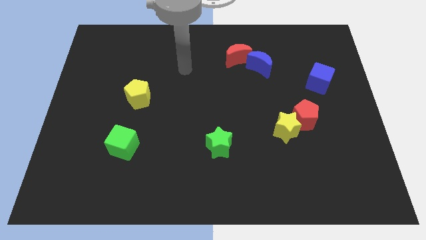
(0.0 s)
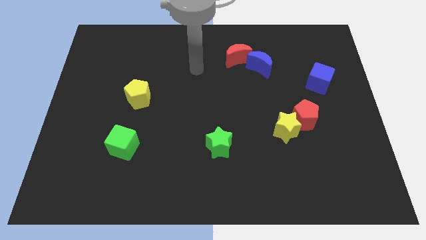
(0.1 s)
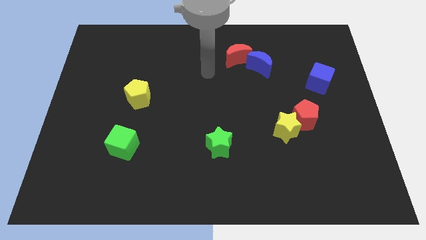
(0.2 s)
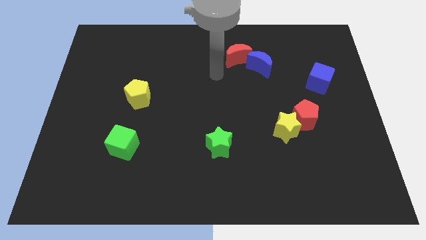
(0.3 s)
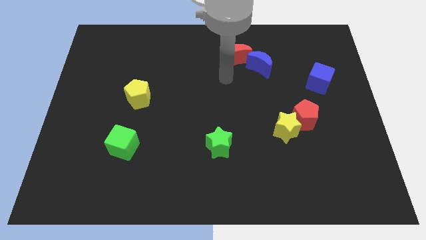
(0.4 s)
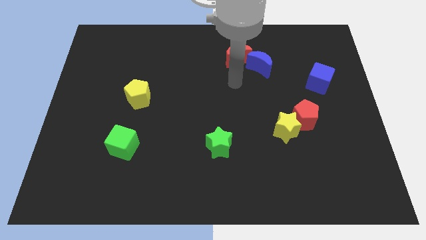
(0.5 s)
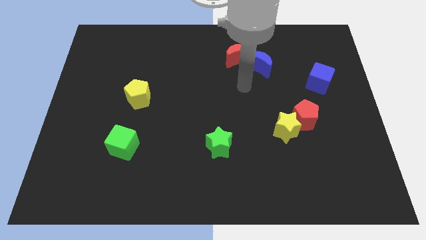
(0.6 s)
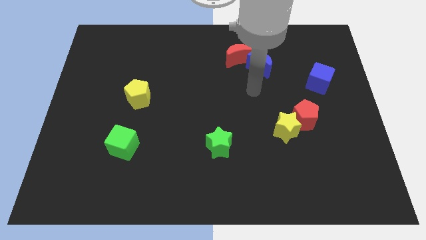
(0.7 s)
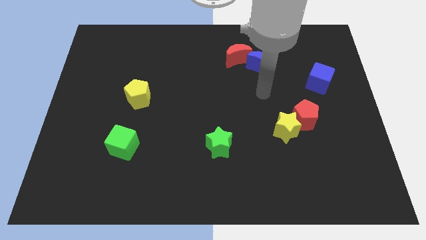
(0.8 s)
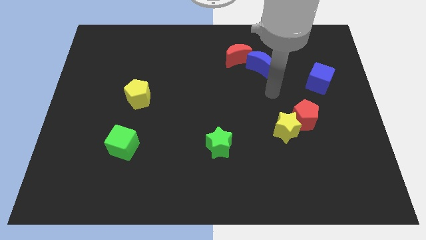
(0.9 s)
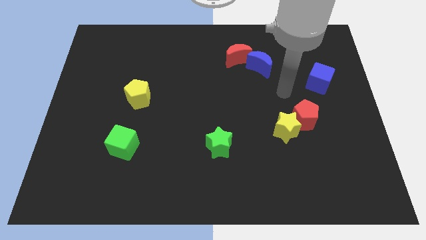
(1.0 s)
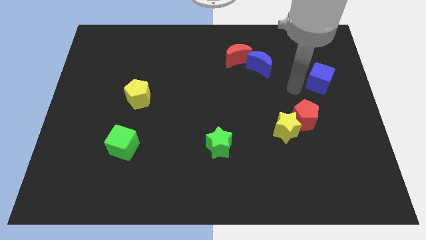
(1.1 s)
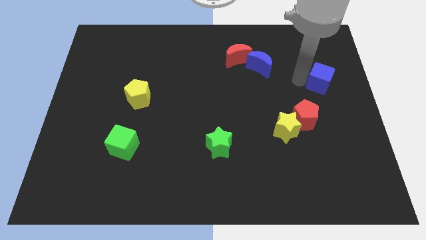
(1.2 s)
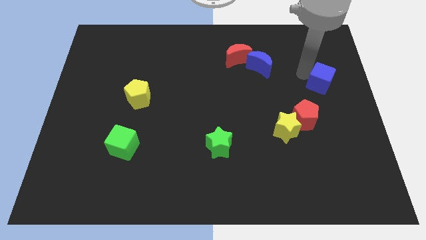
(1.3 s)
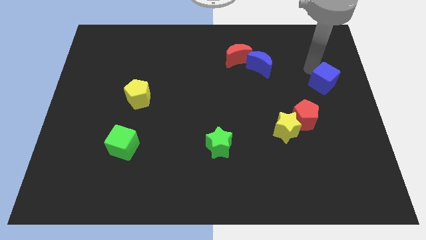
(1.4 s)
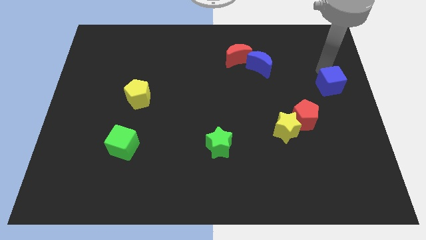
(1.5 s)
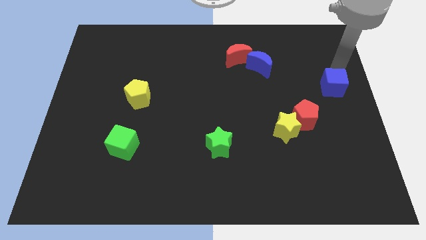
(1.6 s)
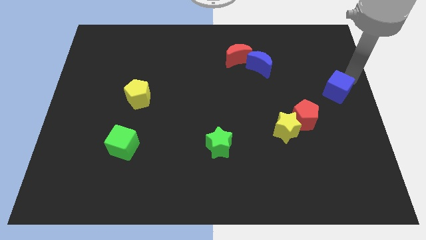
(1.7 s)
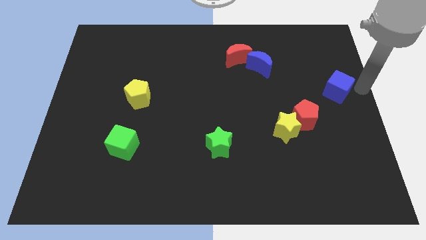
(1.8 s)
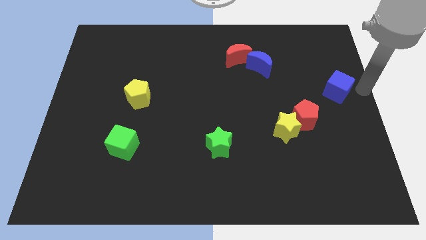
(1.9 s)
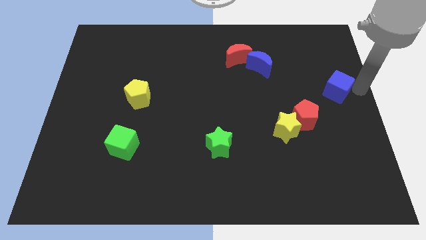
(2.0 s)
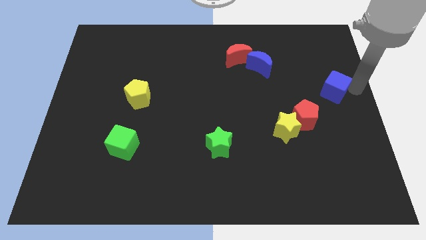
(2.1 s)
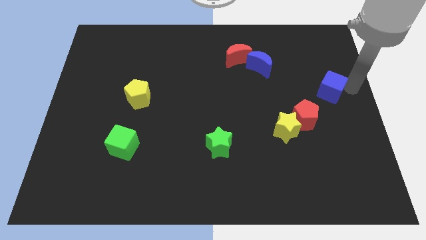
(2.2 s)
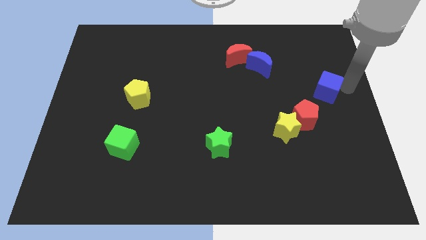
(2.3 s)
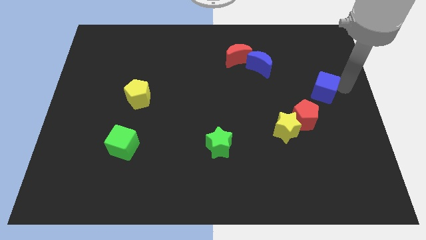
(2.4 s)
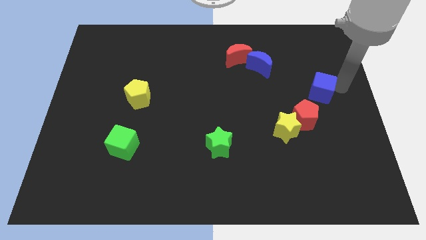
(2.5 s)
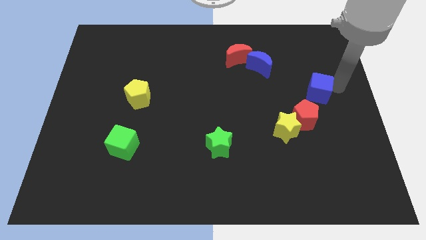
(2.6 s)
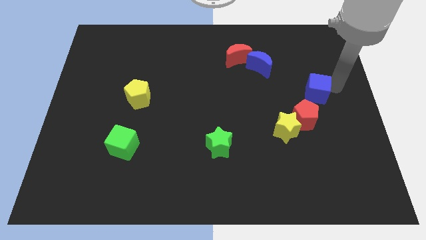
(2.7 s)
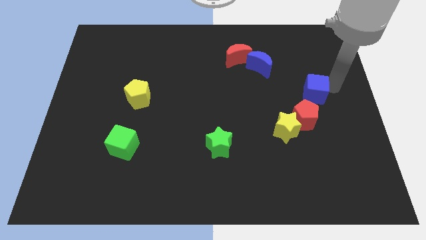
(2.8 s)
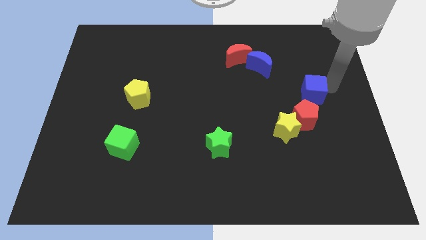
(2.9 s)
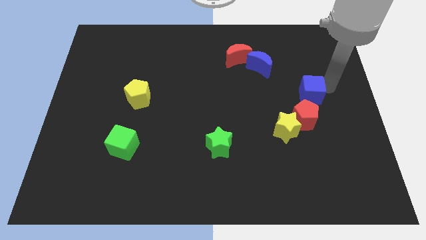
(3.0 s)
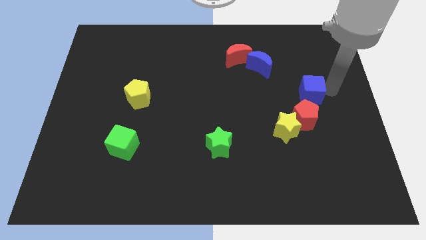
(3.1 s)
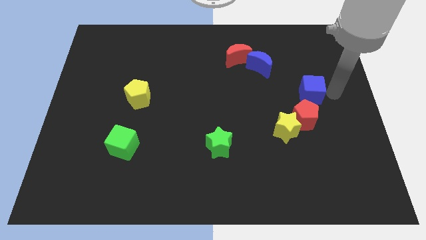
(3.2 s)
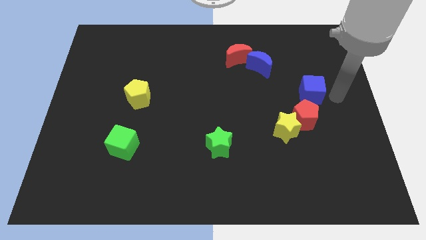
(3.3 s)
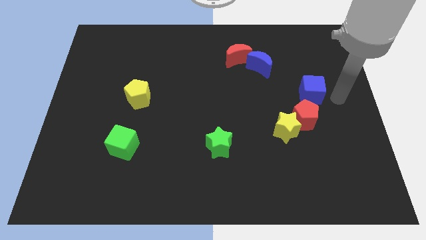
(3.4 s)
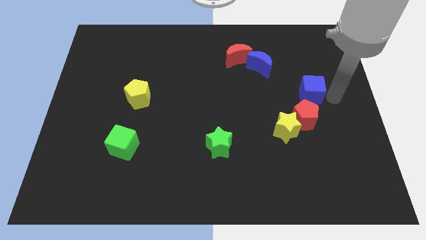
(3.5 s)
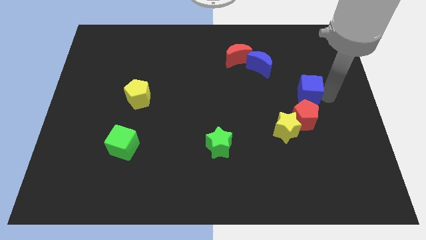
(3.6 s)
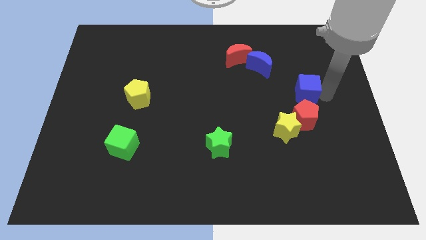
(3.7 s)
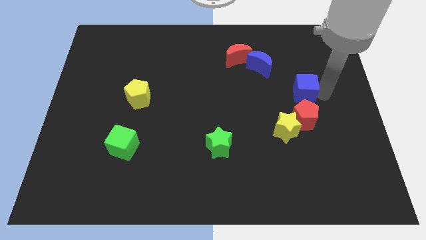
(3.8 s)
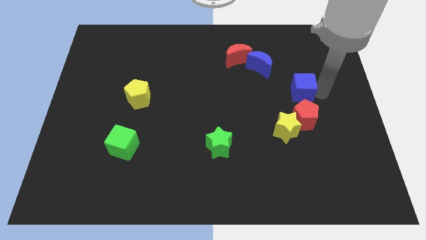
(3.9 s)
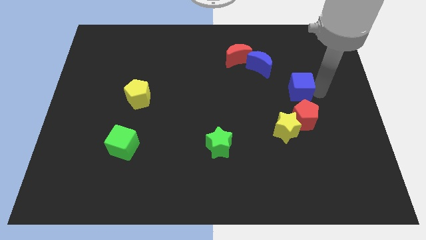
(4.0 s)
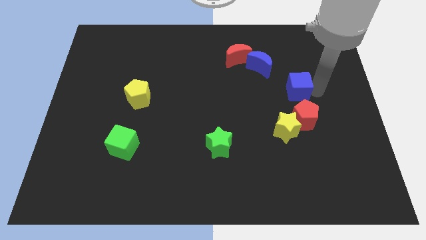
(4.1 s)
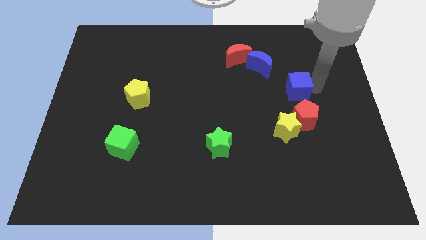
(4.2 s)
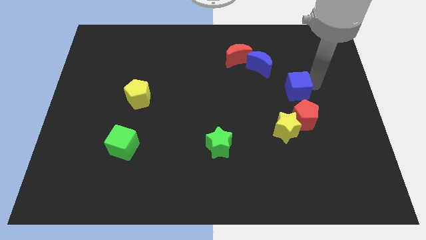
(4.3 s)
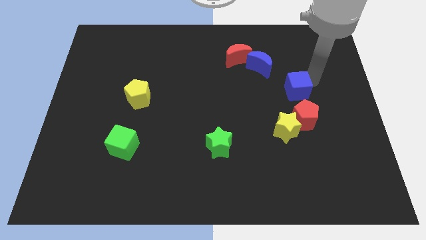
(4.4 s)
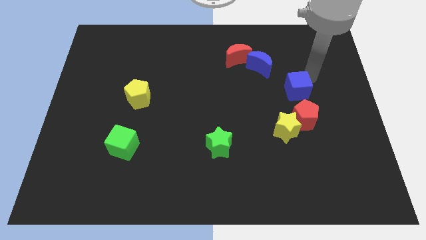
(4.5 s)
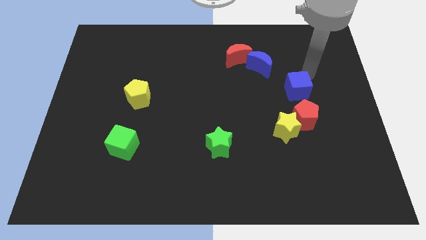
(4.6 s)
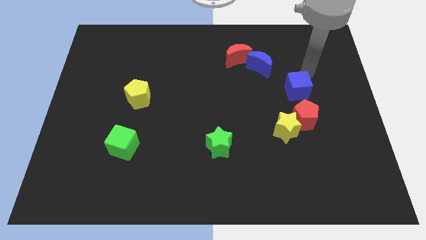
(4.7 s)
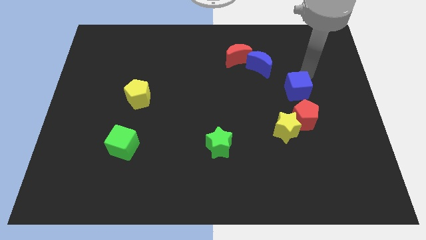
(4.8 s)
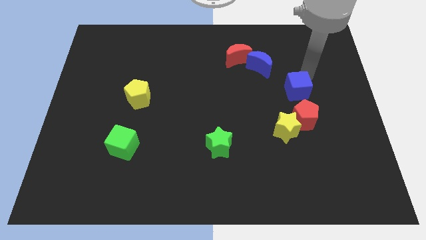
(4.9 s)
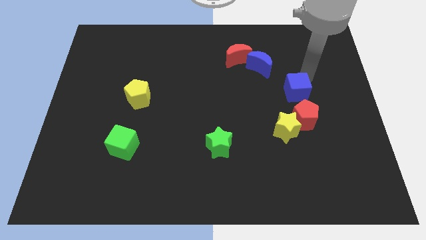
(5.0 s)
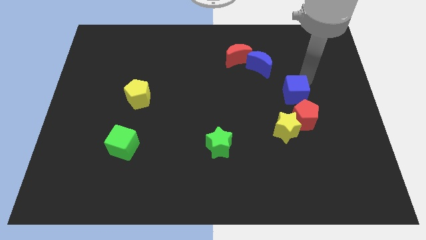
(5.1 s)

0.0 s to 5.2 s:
slightly push the blue cube down and then left

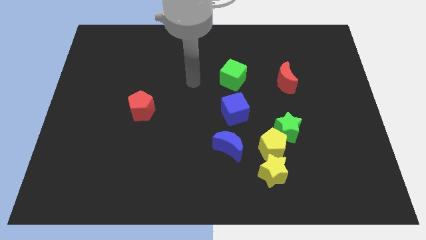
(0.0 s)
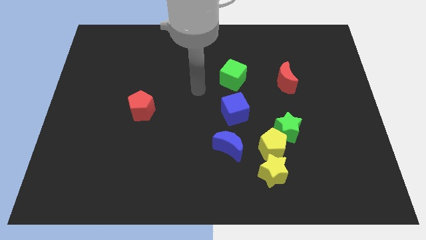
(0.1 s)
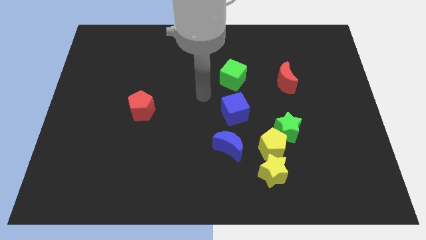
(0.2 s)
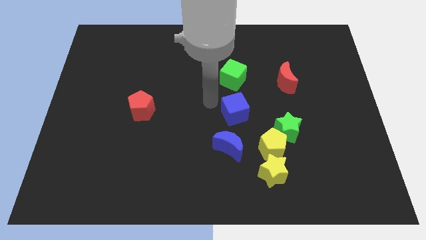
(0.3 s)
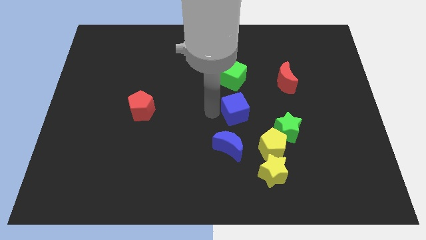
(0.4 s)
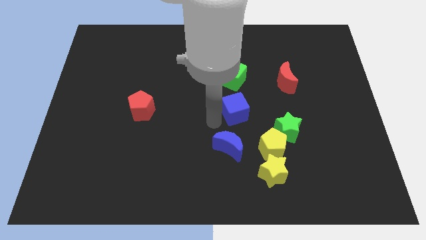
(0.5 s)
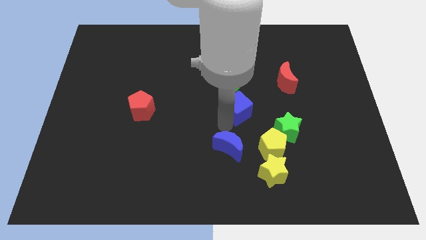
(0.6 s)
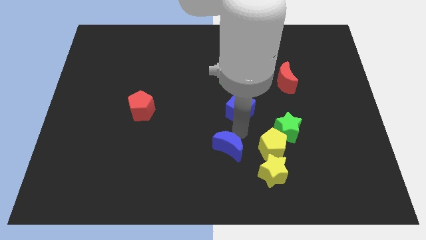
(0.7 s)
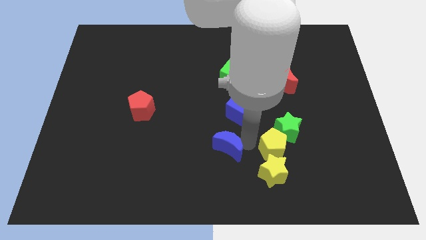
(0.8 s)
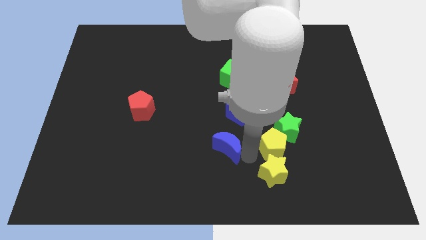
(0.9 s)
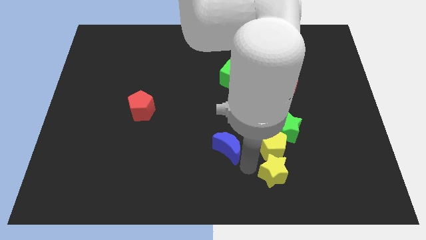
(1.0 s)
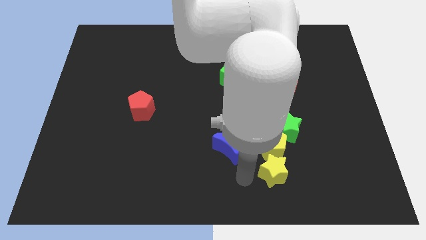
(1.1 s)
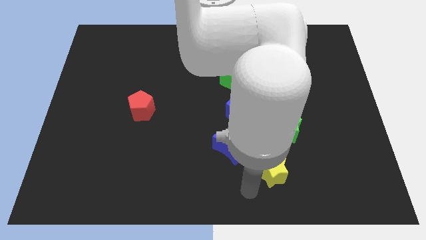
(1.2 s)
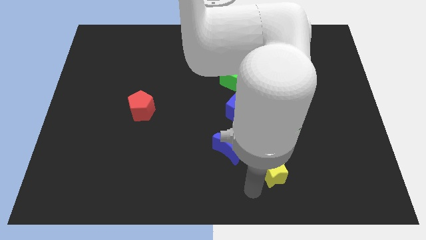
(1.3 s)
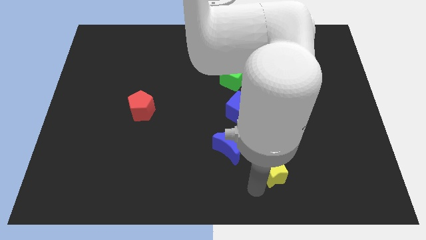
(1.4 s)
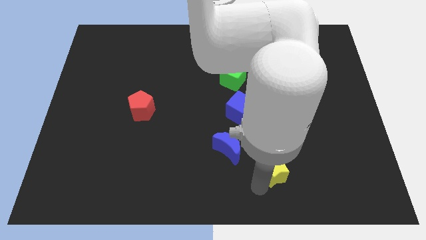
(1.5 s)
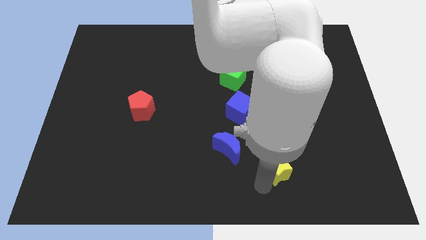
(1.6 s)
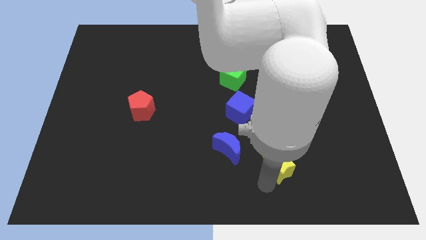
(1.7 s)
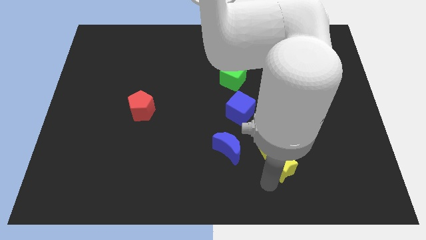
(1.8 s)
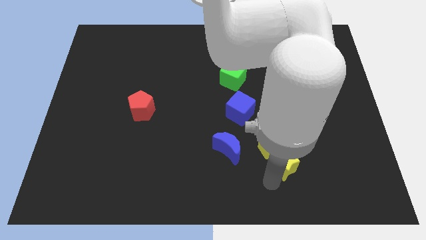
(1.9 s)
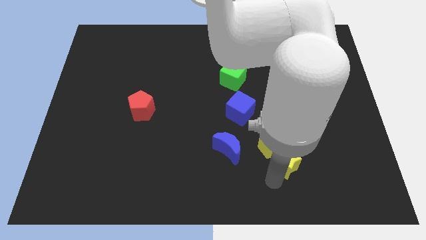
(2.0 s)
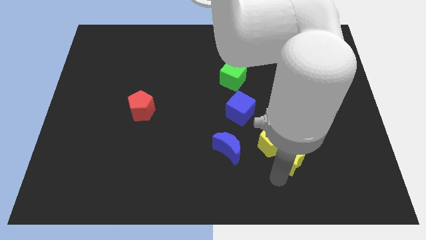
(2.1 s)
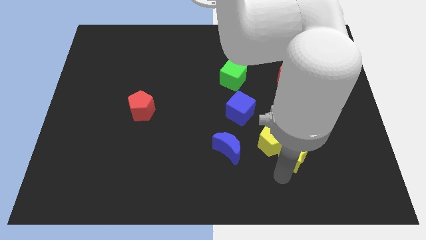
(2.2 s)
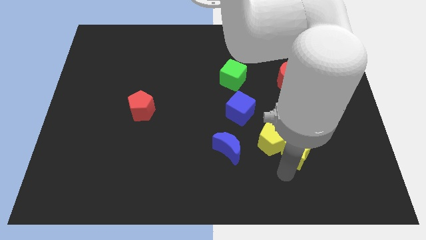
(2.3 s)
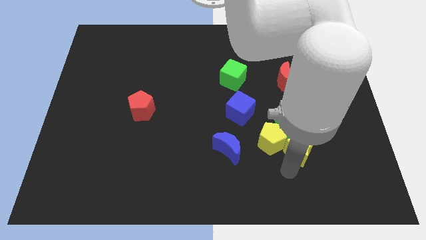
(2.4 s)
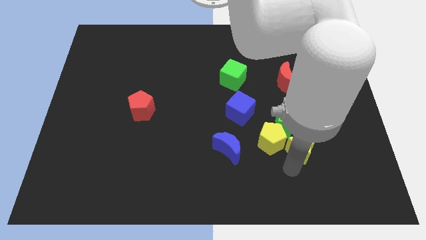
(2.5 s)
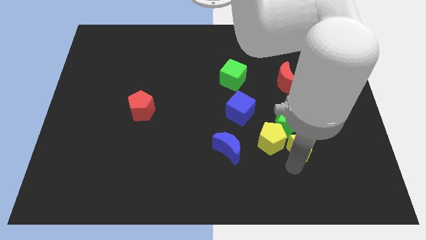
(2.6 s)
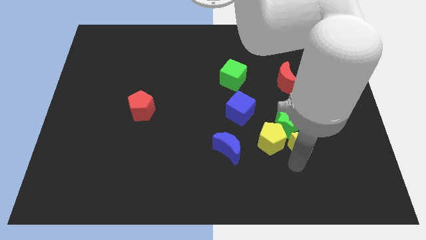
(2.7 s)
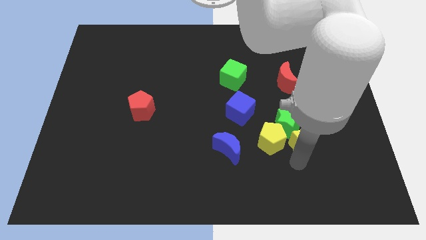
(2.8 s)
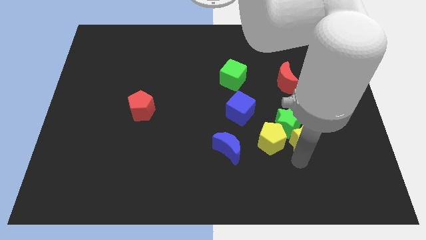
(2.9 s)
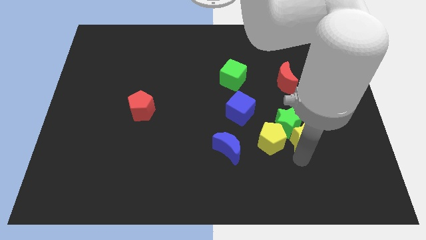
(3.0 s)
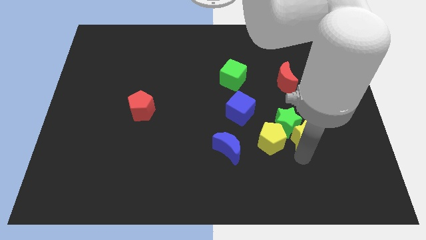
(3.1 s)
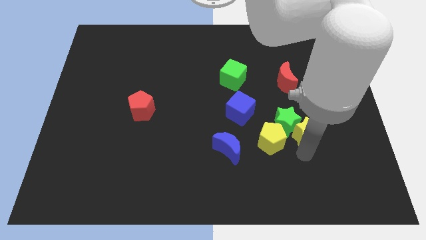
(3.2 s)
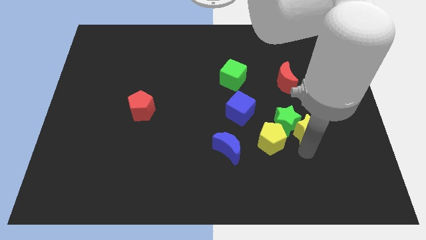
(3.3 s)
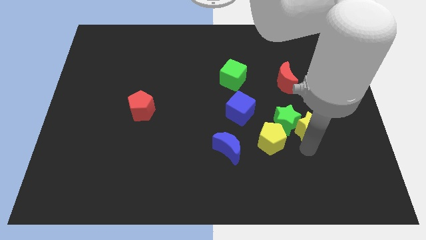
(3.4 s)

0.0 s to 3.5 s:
push the yellow star upwards a bit
